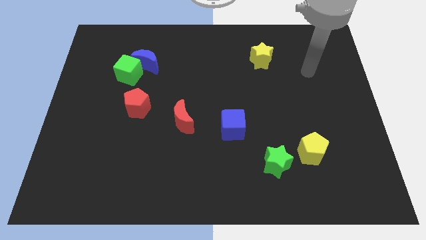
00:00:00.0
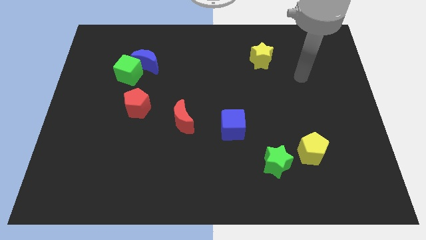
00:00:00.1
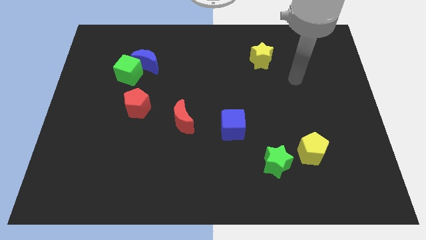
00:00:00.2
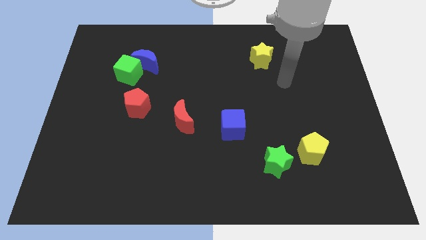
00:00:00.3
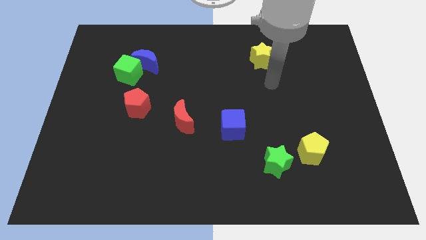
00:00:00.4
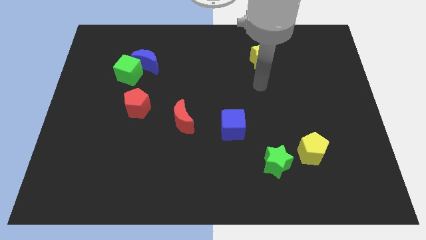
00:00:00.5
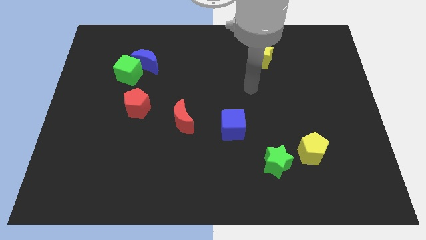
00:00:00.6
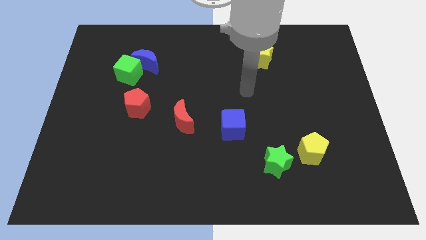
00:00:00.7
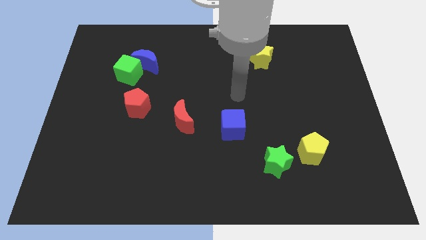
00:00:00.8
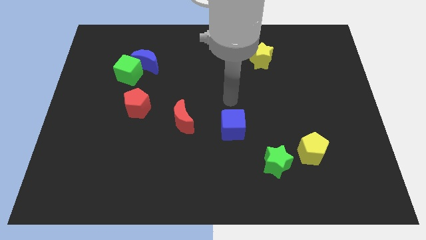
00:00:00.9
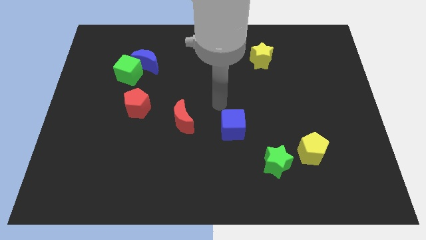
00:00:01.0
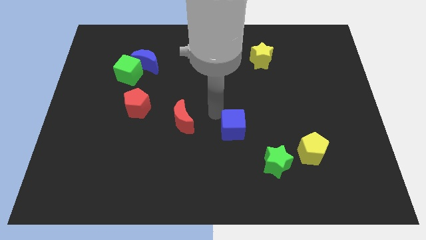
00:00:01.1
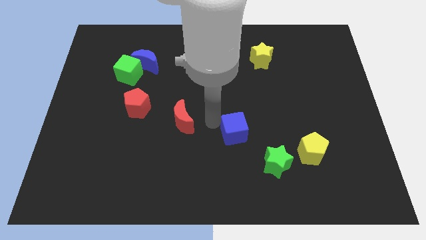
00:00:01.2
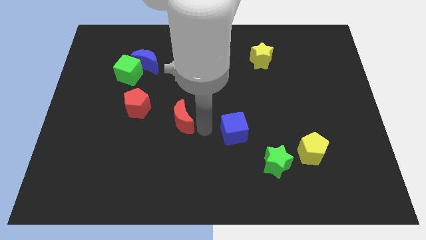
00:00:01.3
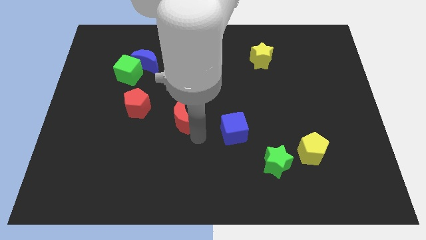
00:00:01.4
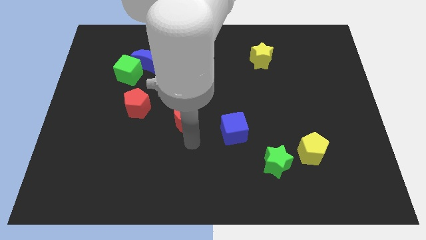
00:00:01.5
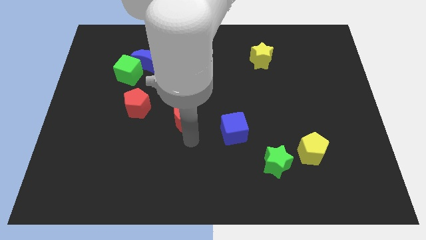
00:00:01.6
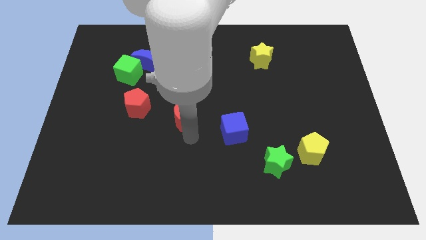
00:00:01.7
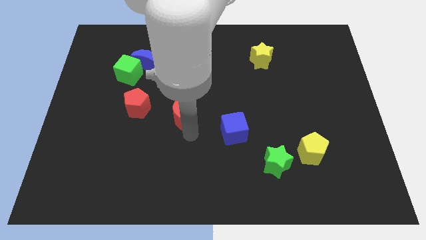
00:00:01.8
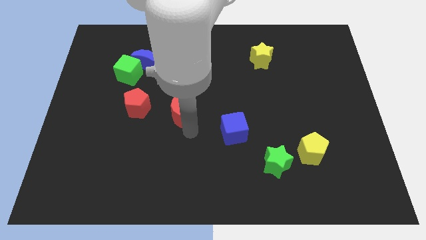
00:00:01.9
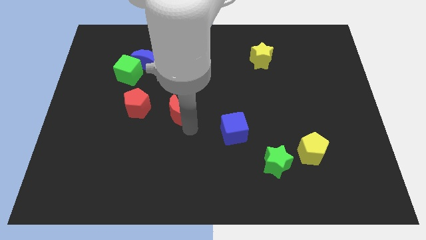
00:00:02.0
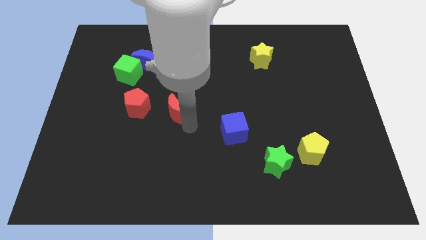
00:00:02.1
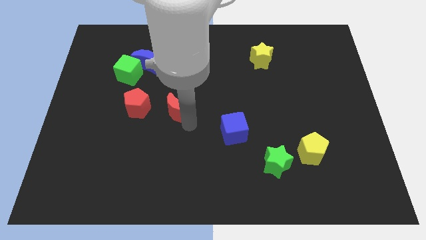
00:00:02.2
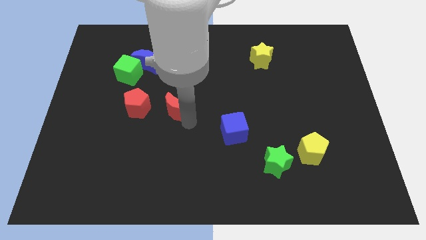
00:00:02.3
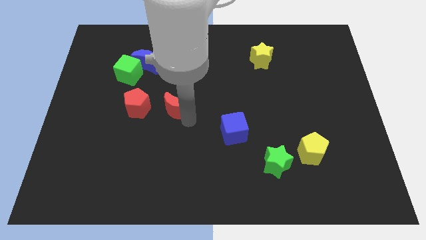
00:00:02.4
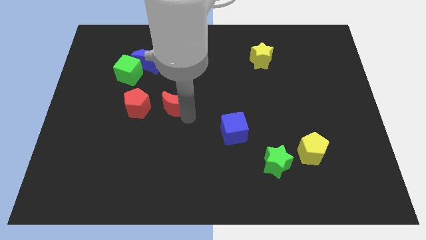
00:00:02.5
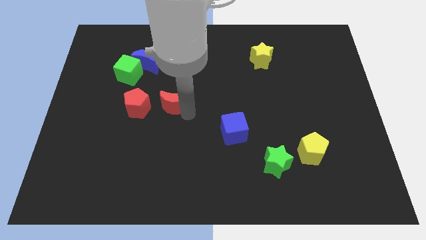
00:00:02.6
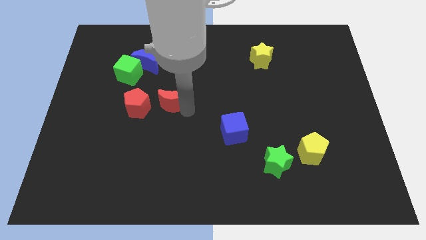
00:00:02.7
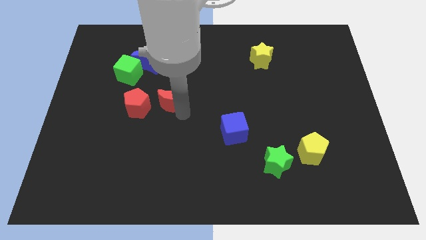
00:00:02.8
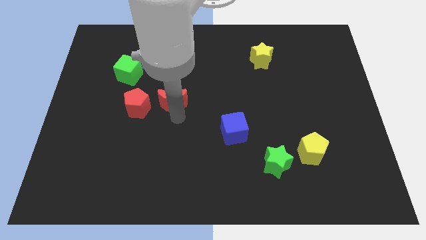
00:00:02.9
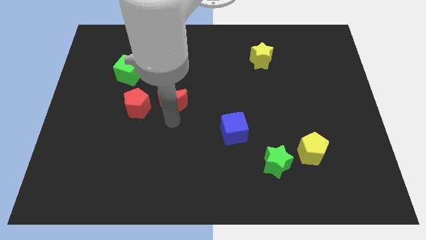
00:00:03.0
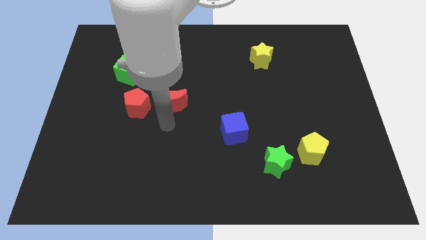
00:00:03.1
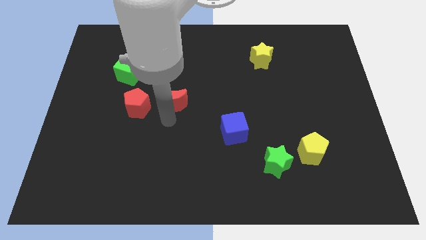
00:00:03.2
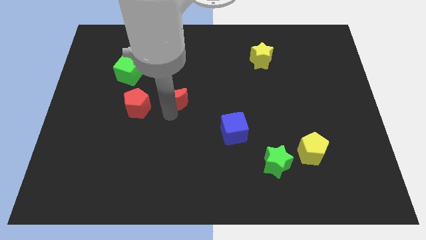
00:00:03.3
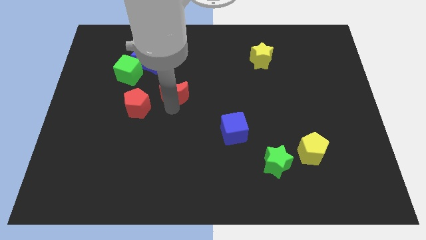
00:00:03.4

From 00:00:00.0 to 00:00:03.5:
slightly push the red moon upwards

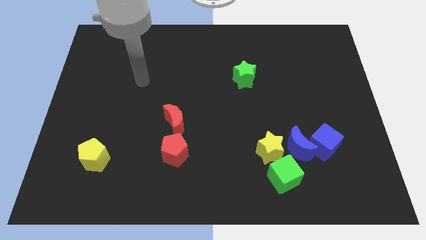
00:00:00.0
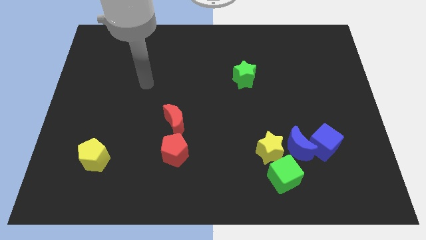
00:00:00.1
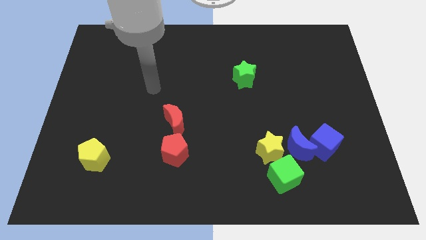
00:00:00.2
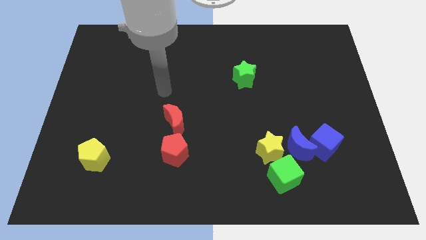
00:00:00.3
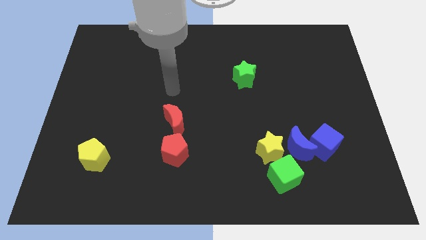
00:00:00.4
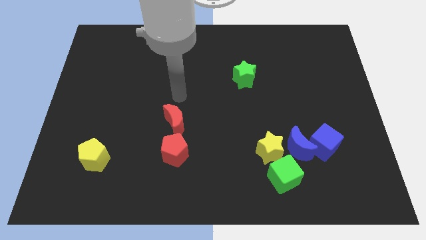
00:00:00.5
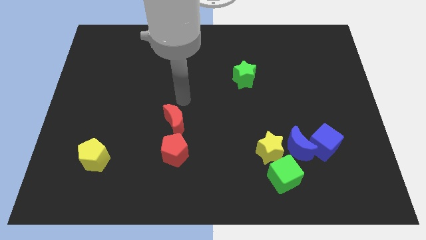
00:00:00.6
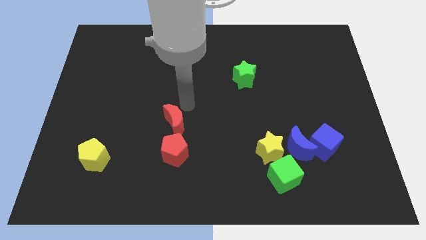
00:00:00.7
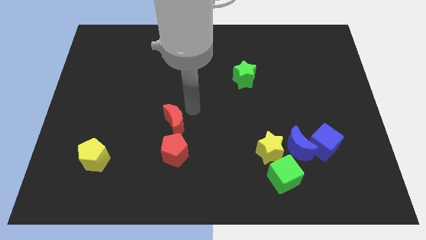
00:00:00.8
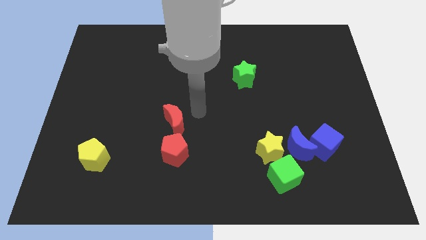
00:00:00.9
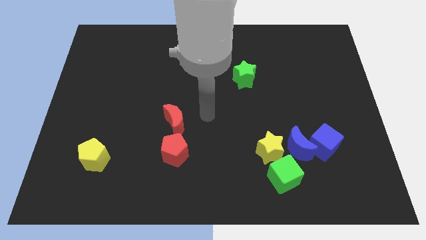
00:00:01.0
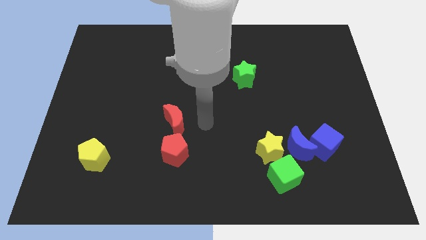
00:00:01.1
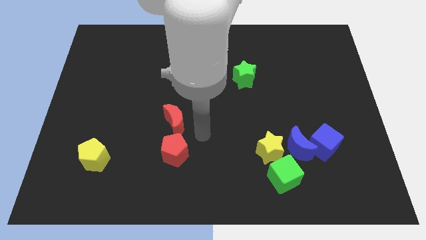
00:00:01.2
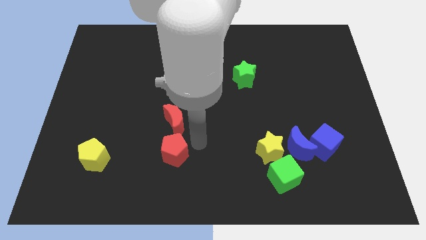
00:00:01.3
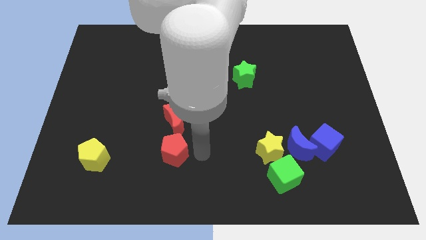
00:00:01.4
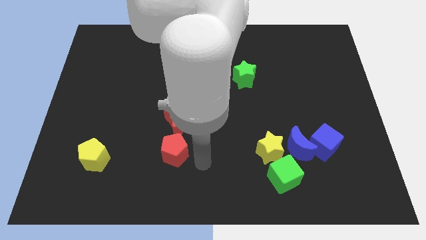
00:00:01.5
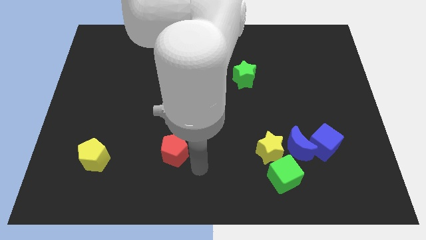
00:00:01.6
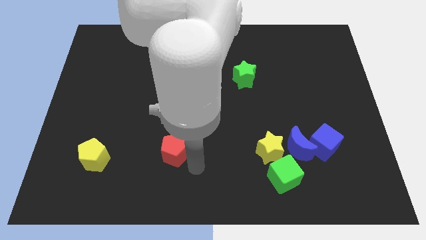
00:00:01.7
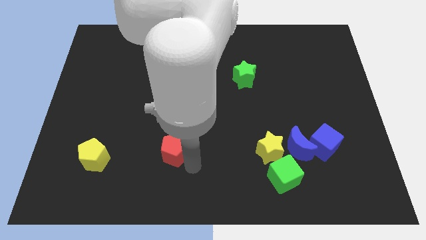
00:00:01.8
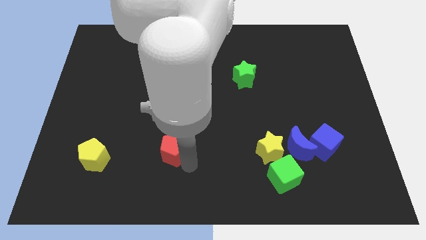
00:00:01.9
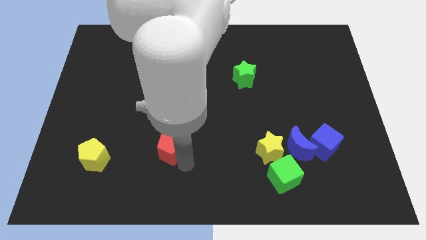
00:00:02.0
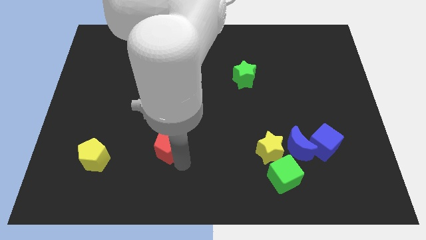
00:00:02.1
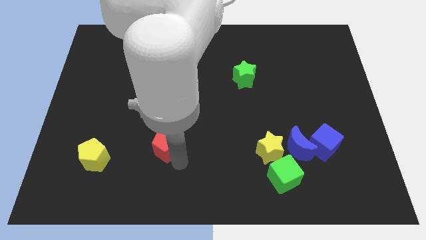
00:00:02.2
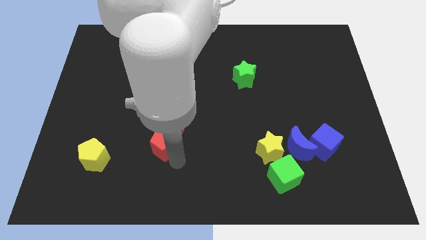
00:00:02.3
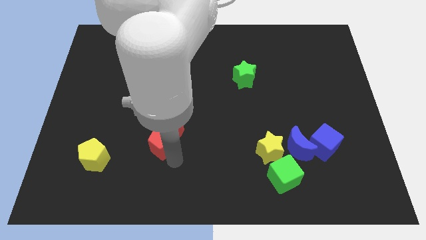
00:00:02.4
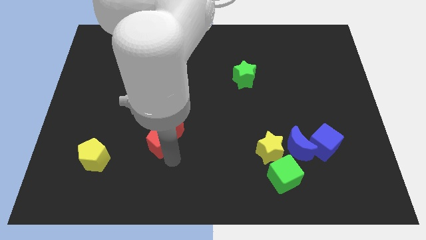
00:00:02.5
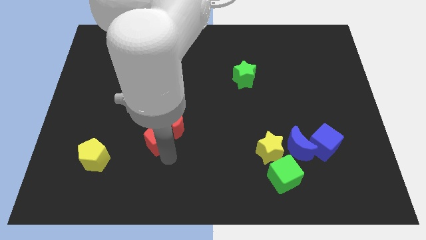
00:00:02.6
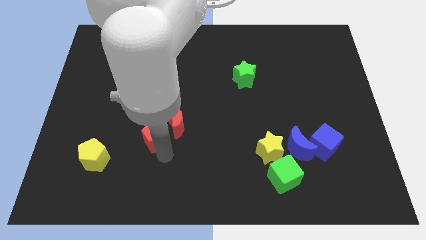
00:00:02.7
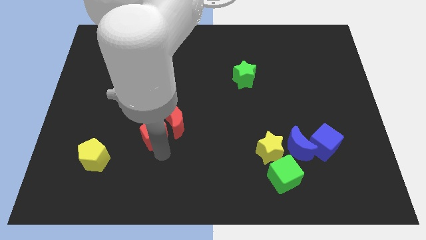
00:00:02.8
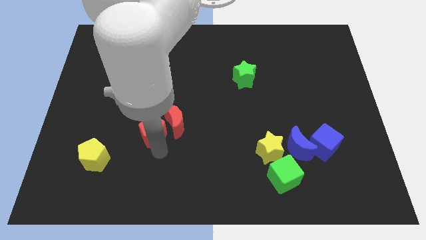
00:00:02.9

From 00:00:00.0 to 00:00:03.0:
slightly move the red pentagon upwards and then left

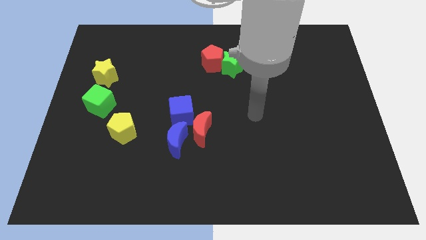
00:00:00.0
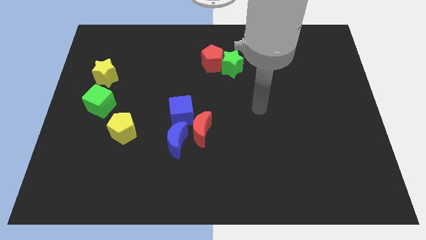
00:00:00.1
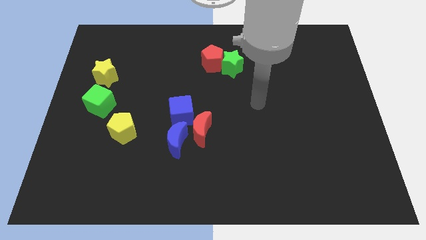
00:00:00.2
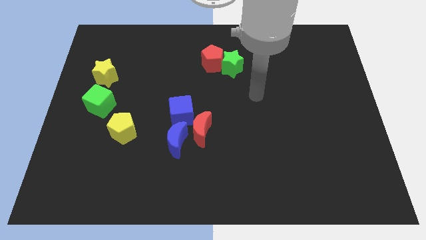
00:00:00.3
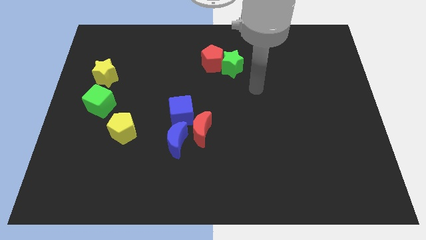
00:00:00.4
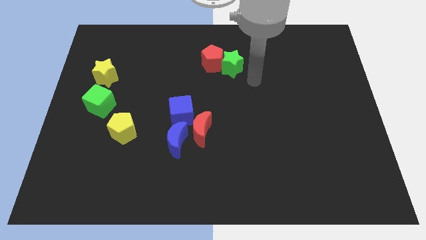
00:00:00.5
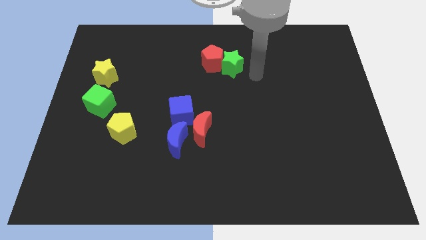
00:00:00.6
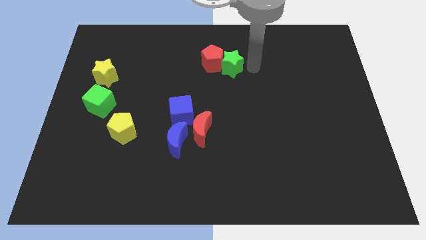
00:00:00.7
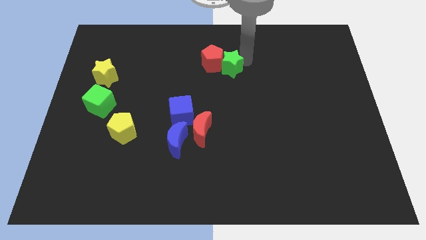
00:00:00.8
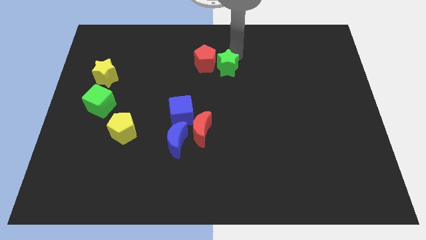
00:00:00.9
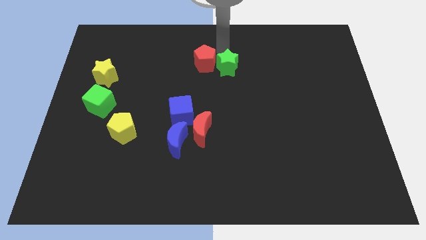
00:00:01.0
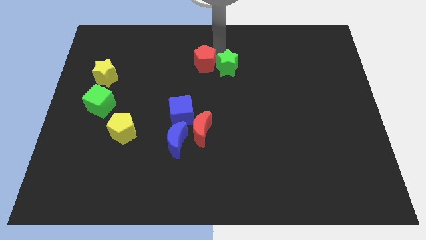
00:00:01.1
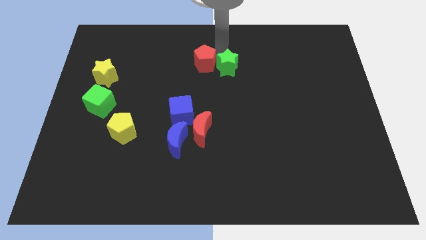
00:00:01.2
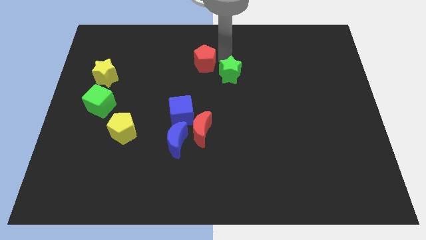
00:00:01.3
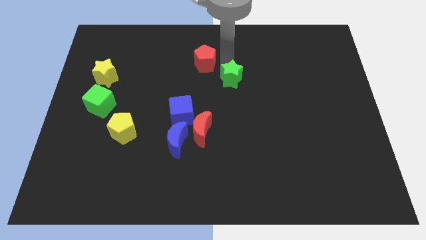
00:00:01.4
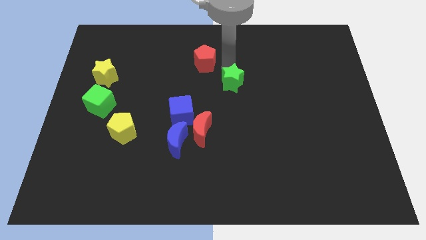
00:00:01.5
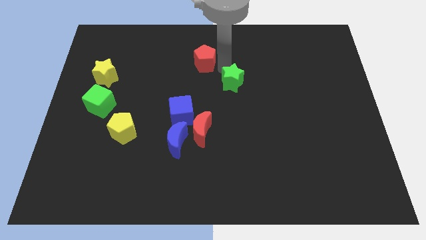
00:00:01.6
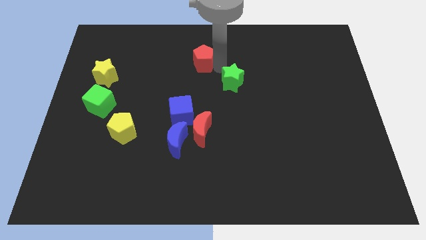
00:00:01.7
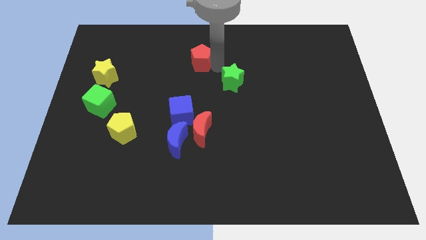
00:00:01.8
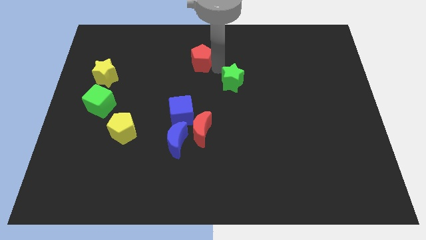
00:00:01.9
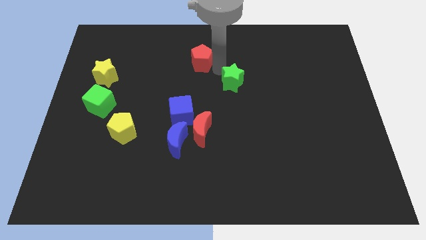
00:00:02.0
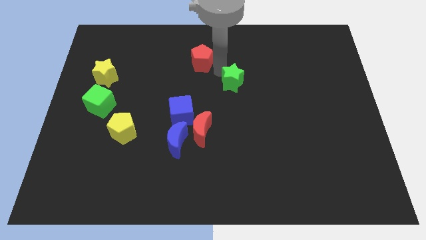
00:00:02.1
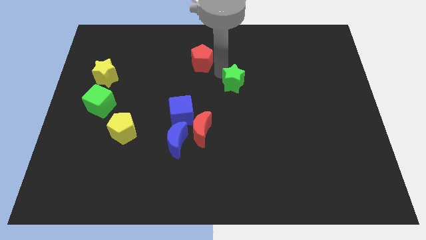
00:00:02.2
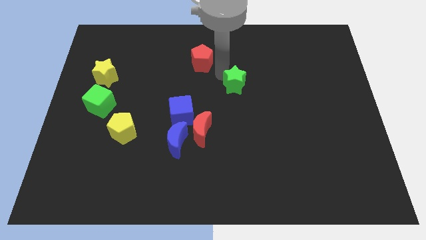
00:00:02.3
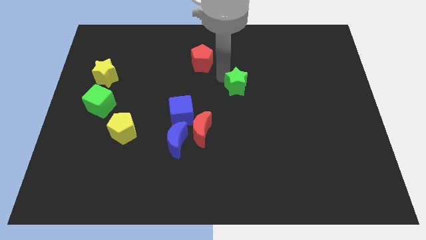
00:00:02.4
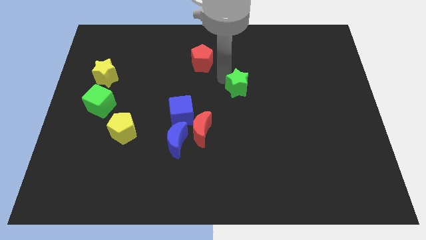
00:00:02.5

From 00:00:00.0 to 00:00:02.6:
push the green star somewhat down
